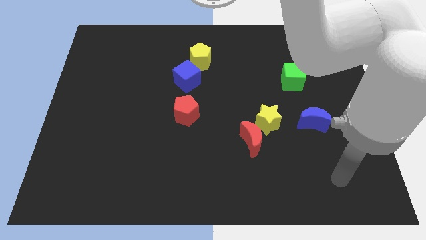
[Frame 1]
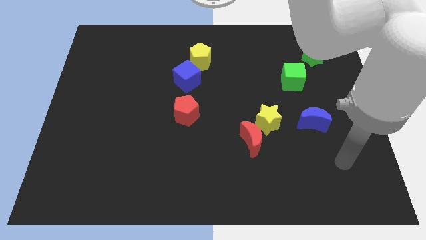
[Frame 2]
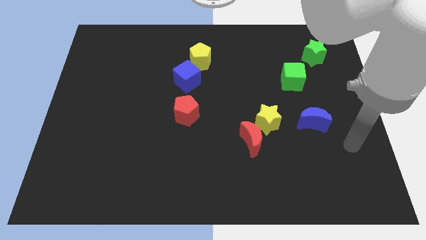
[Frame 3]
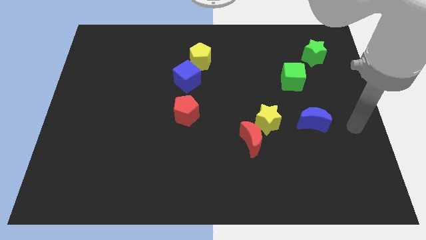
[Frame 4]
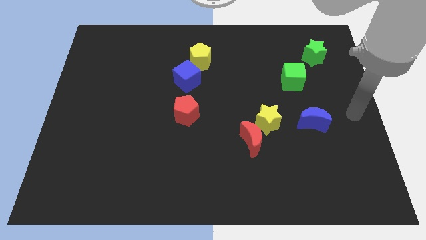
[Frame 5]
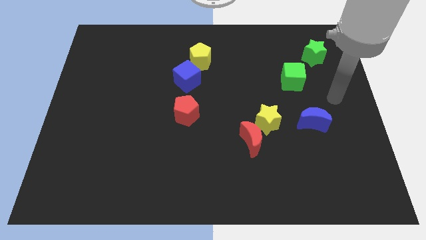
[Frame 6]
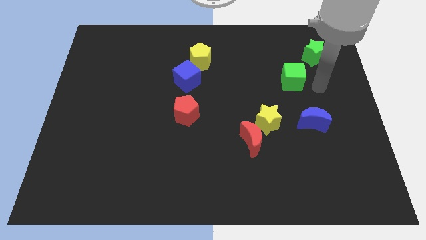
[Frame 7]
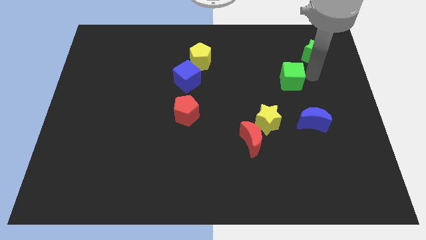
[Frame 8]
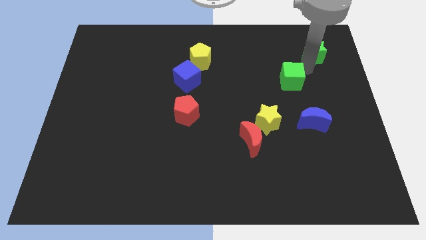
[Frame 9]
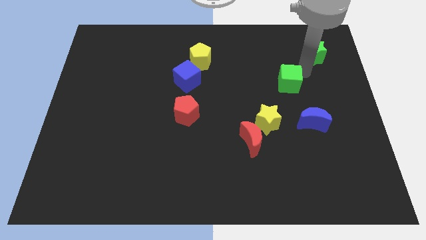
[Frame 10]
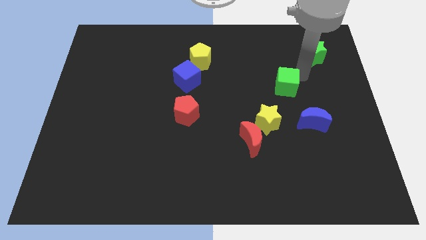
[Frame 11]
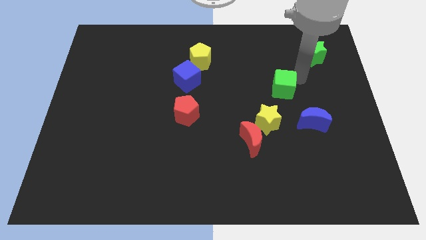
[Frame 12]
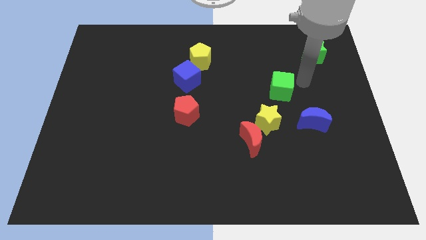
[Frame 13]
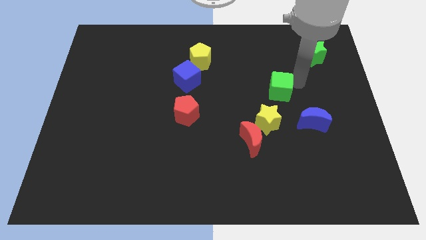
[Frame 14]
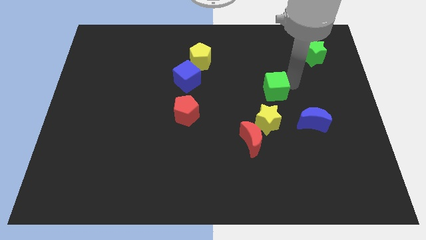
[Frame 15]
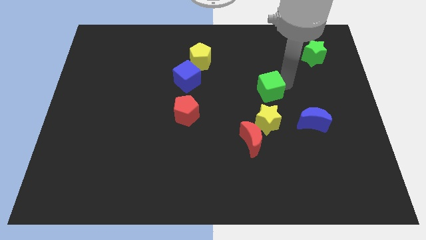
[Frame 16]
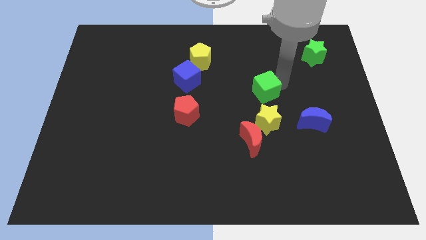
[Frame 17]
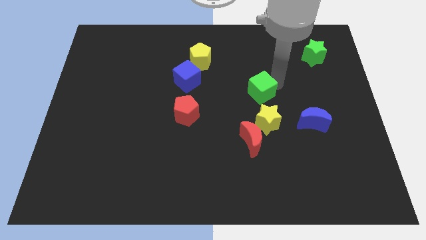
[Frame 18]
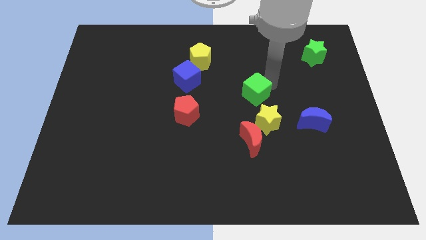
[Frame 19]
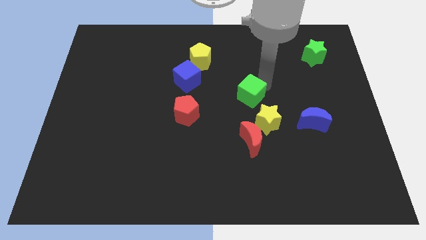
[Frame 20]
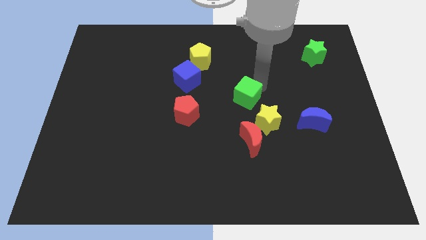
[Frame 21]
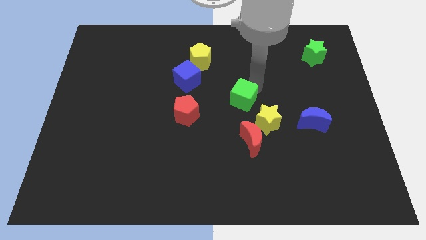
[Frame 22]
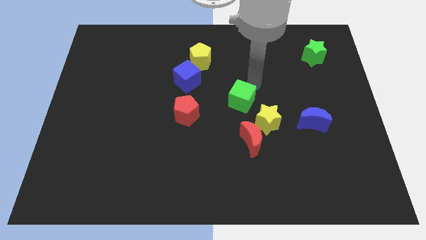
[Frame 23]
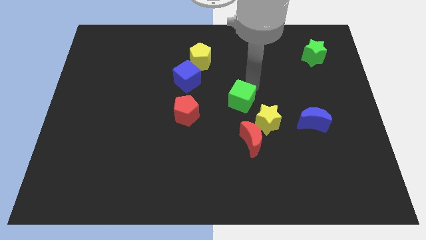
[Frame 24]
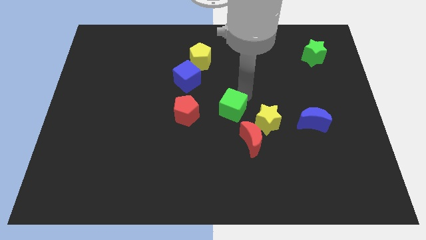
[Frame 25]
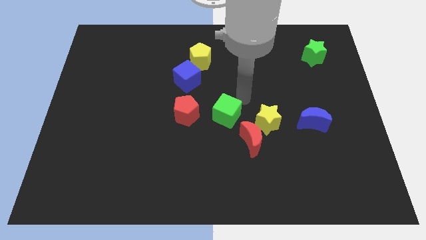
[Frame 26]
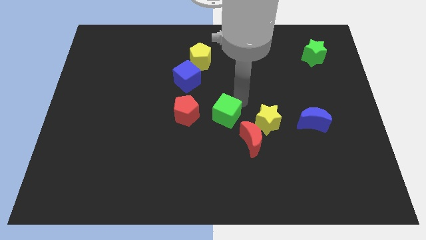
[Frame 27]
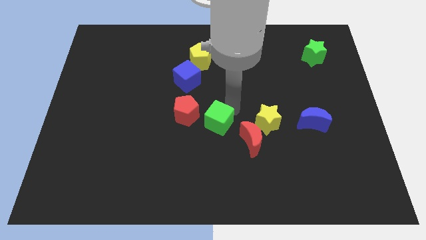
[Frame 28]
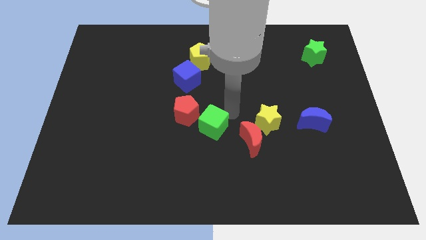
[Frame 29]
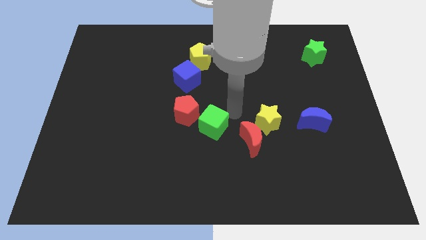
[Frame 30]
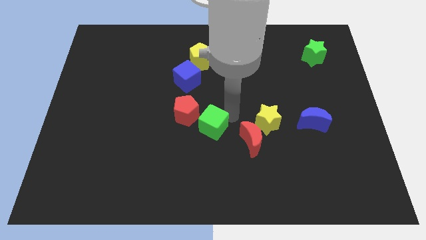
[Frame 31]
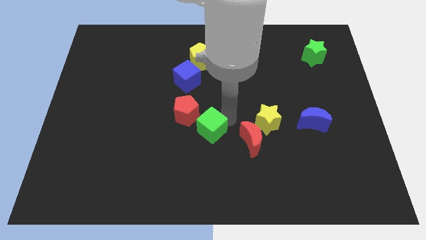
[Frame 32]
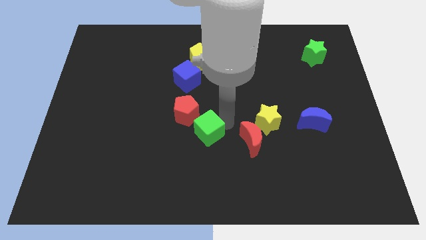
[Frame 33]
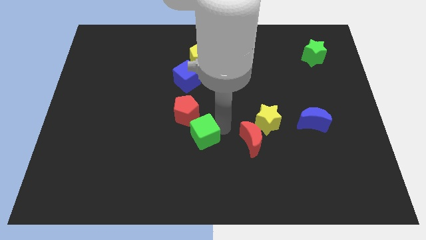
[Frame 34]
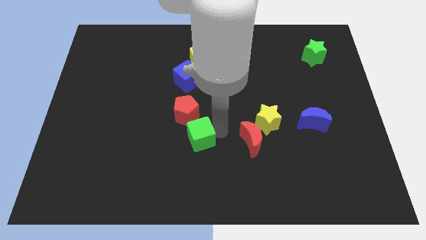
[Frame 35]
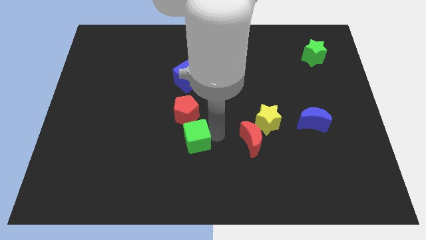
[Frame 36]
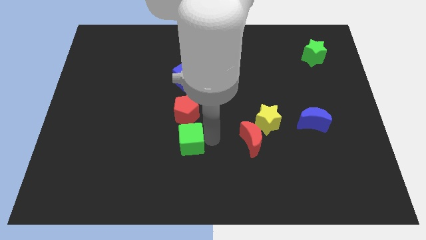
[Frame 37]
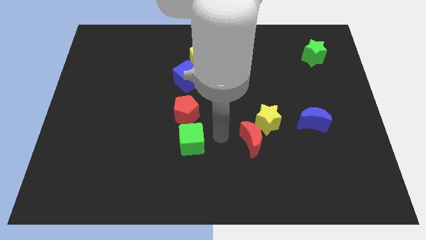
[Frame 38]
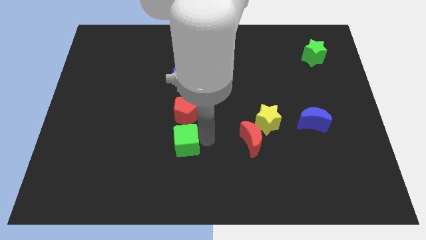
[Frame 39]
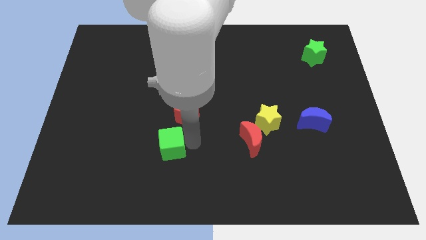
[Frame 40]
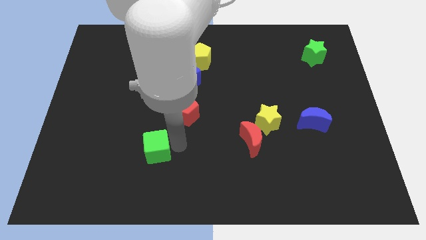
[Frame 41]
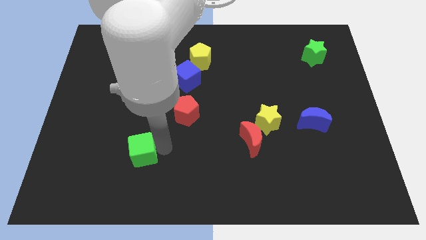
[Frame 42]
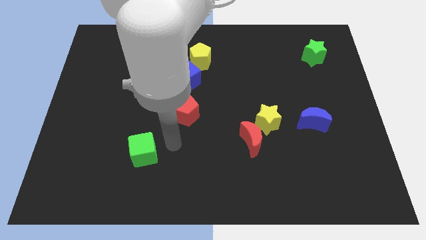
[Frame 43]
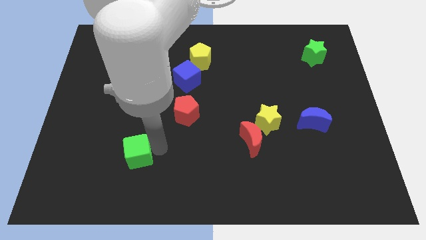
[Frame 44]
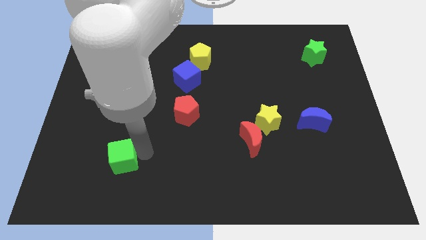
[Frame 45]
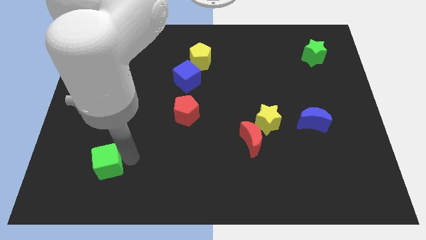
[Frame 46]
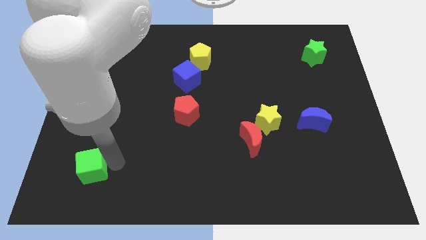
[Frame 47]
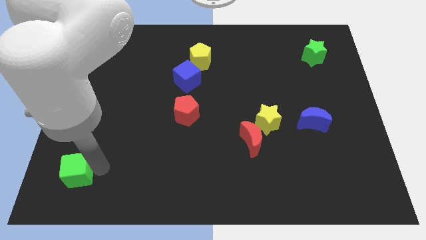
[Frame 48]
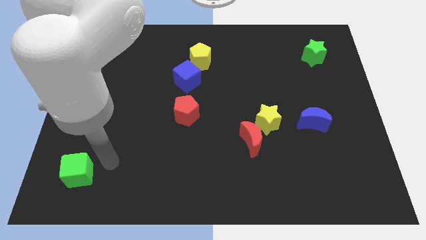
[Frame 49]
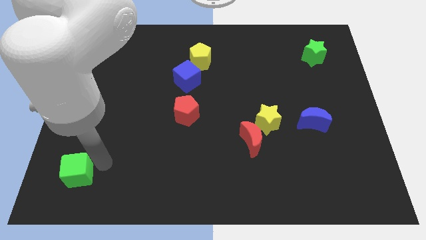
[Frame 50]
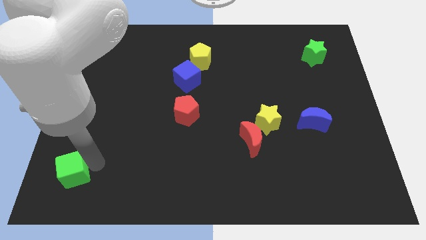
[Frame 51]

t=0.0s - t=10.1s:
move the green cube to the lower left corner

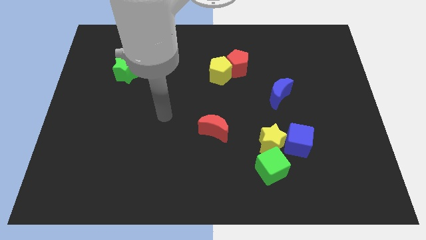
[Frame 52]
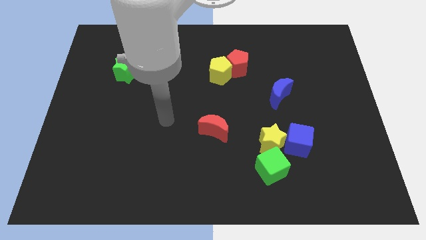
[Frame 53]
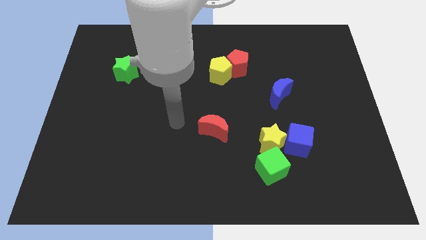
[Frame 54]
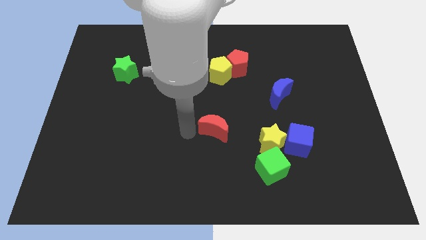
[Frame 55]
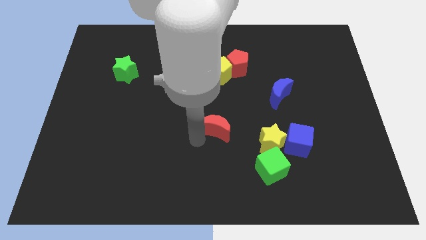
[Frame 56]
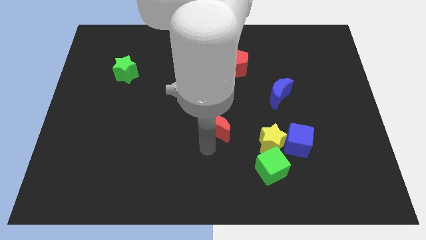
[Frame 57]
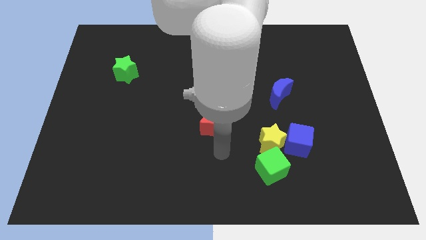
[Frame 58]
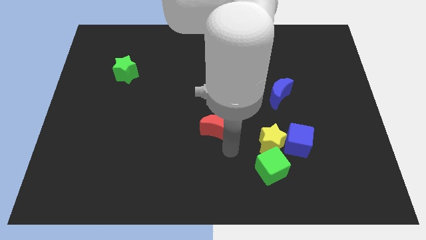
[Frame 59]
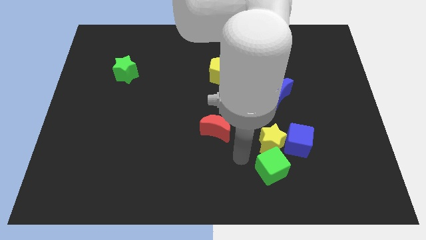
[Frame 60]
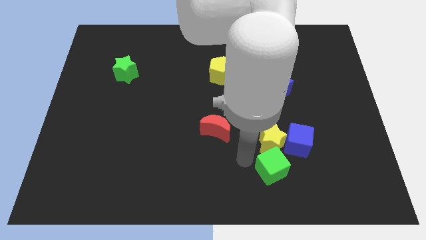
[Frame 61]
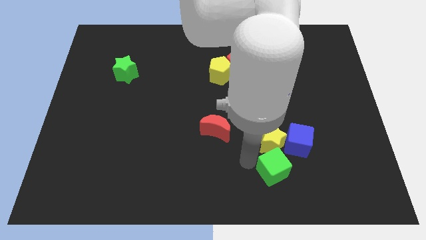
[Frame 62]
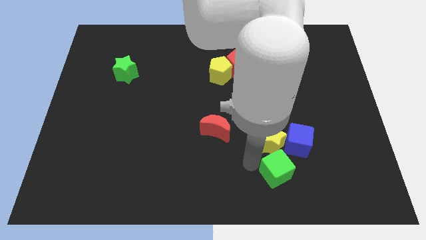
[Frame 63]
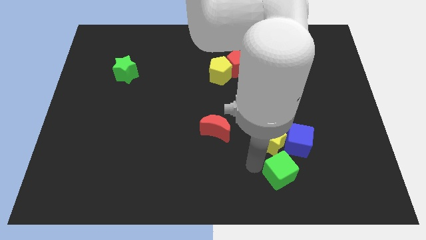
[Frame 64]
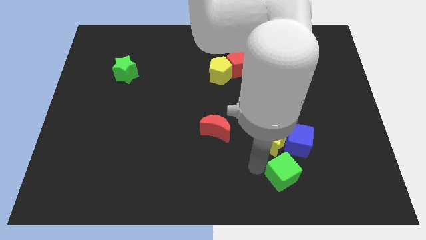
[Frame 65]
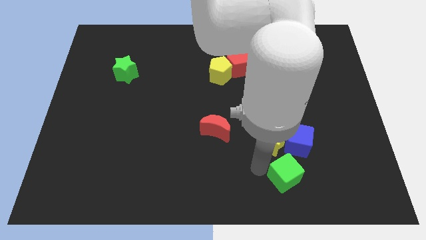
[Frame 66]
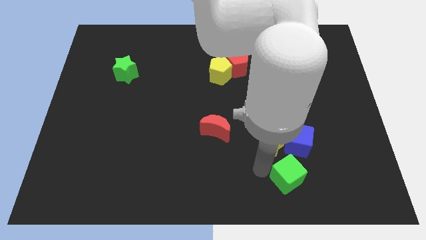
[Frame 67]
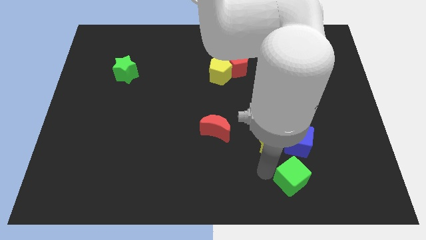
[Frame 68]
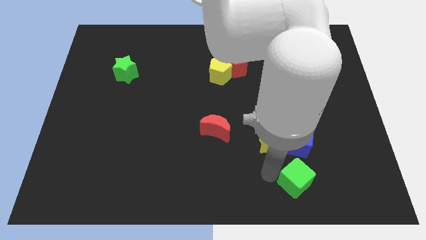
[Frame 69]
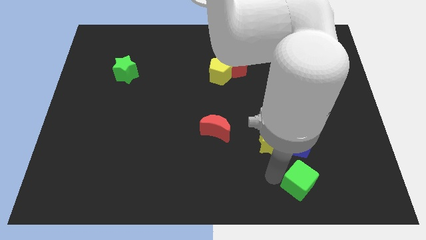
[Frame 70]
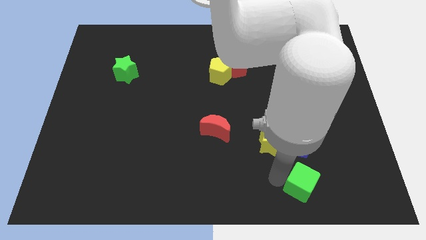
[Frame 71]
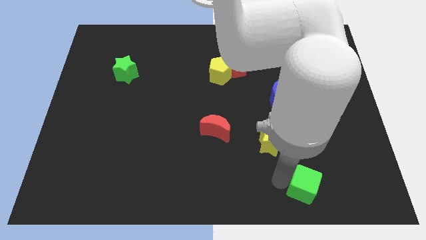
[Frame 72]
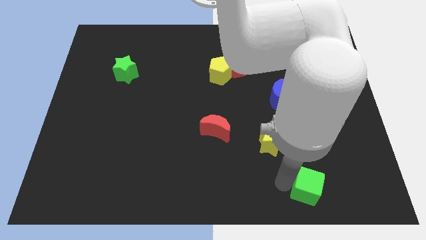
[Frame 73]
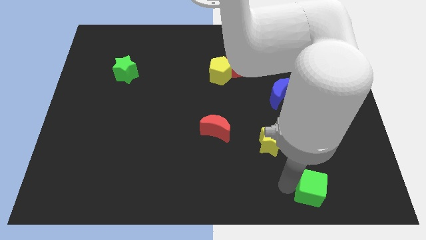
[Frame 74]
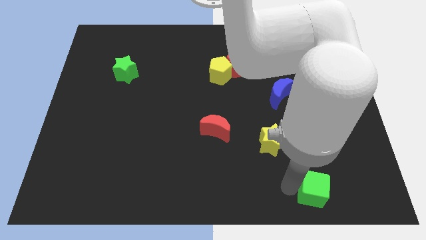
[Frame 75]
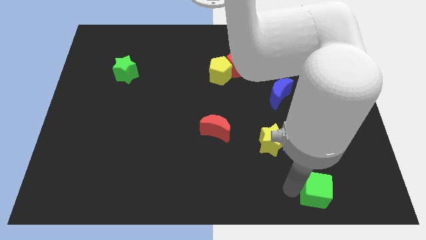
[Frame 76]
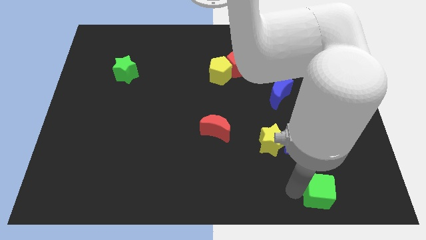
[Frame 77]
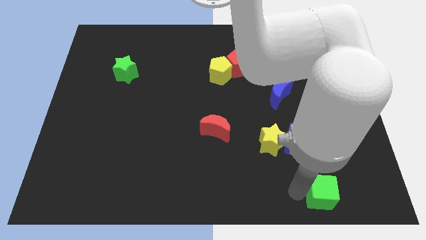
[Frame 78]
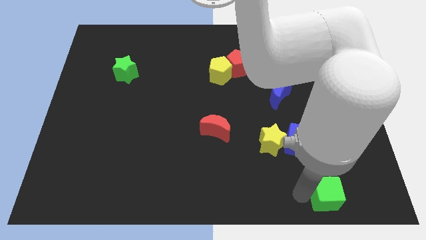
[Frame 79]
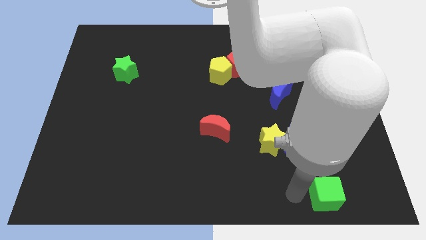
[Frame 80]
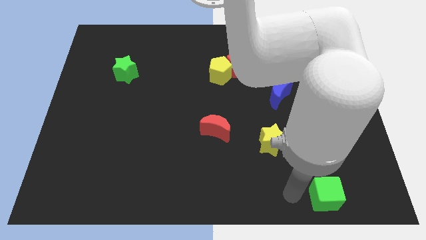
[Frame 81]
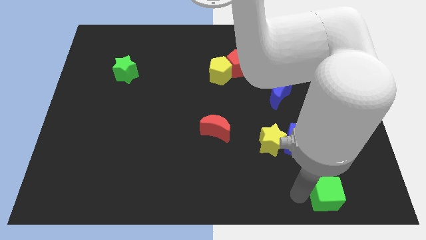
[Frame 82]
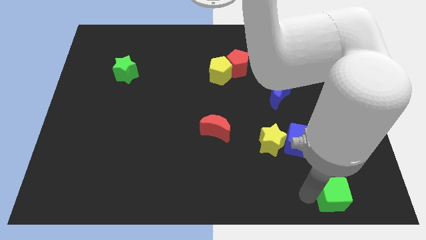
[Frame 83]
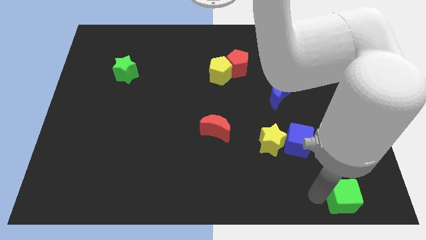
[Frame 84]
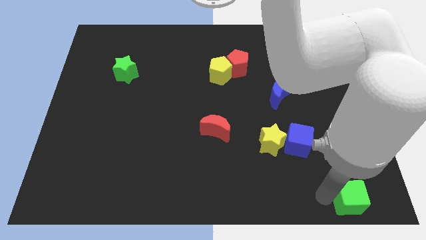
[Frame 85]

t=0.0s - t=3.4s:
put the green cube to the bottom right
